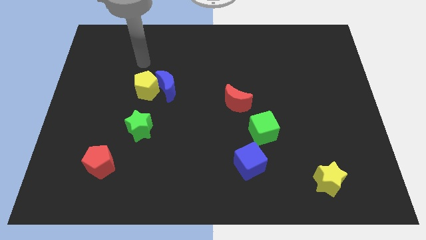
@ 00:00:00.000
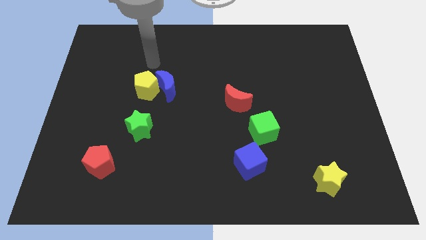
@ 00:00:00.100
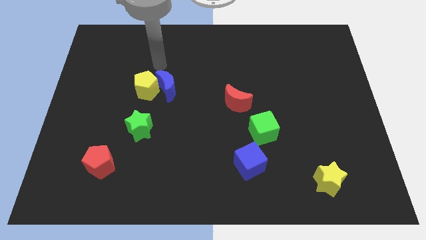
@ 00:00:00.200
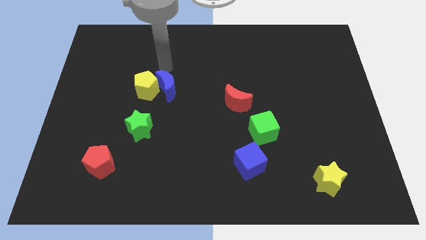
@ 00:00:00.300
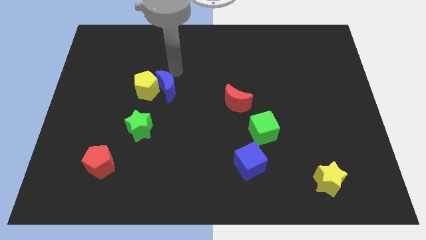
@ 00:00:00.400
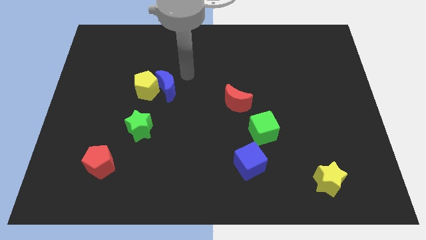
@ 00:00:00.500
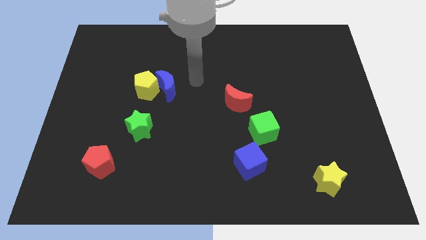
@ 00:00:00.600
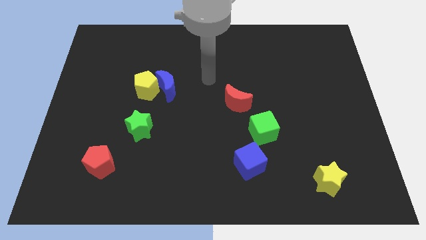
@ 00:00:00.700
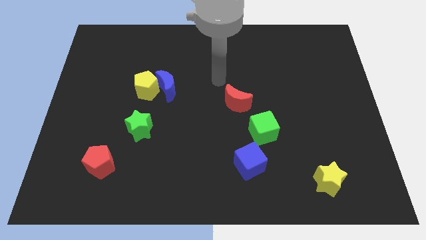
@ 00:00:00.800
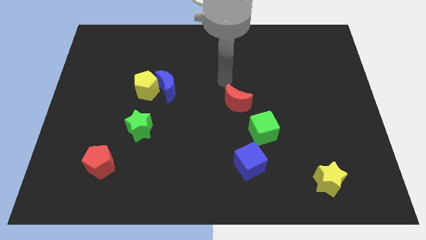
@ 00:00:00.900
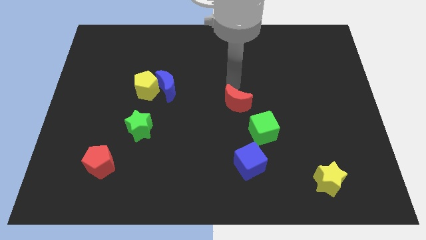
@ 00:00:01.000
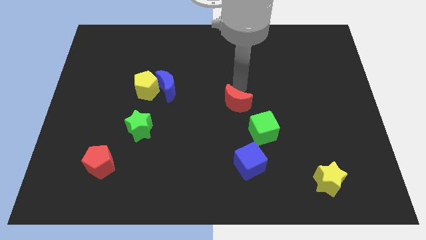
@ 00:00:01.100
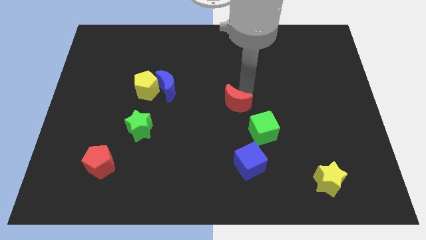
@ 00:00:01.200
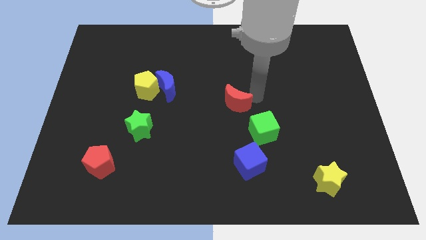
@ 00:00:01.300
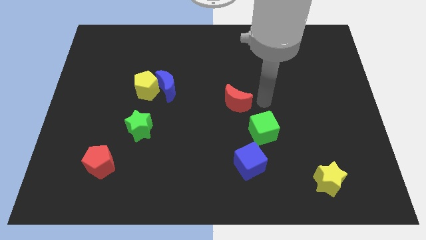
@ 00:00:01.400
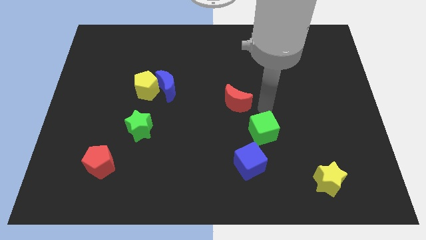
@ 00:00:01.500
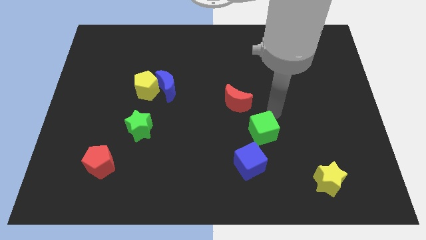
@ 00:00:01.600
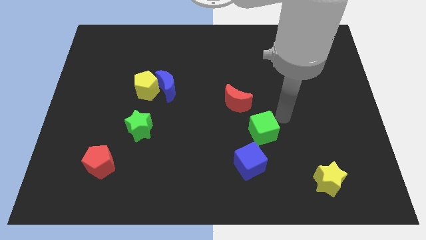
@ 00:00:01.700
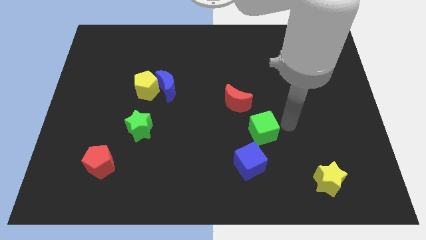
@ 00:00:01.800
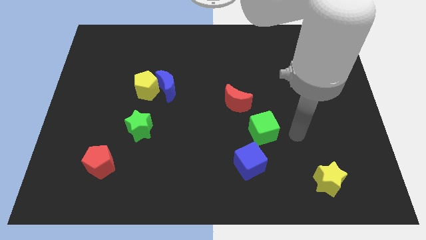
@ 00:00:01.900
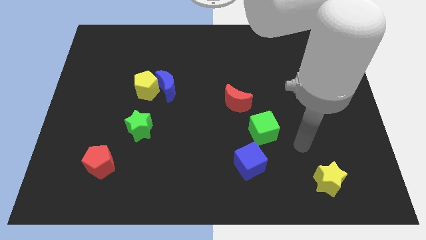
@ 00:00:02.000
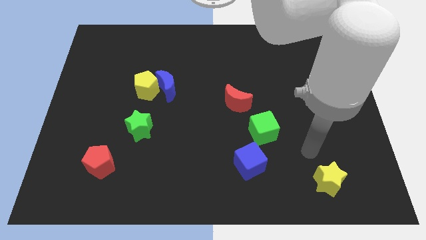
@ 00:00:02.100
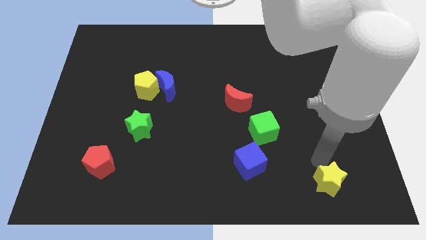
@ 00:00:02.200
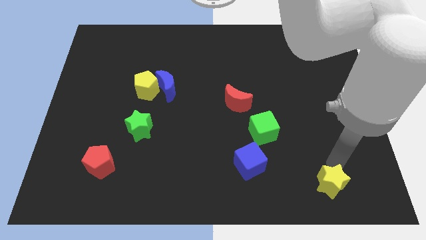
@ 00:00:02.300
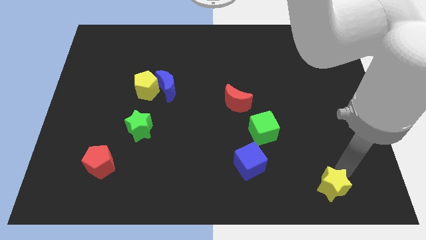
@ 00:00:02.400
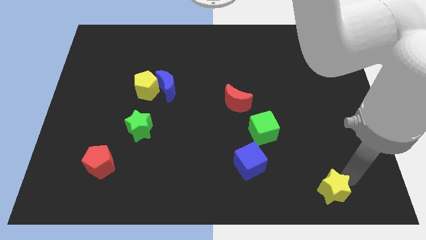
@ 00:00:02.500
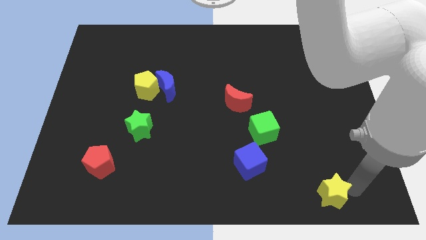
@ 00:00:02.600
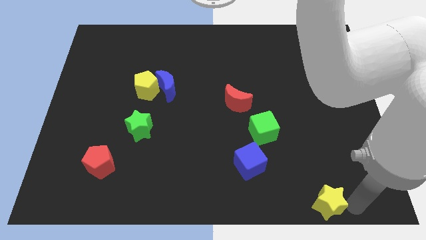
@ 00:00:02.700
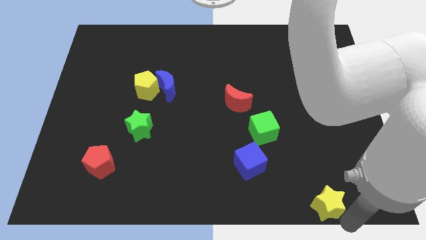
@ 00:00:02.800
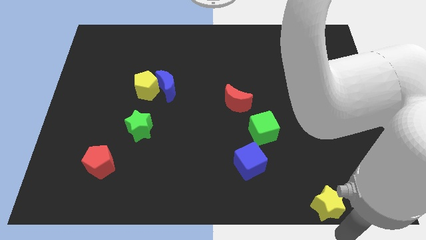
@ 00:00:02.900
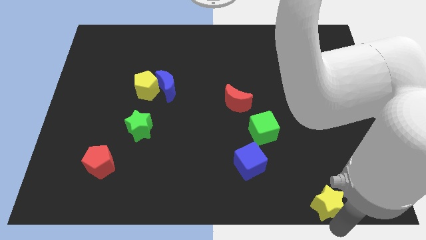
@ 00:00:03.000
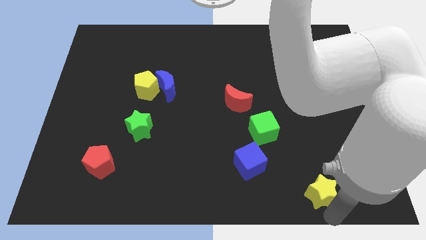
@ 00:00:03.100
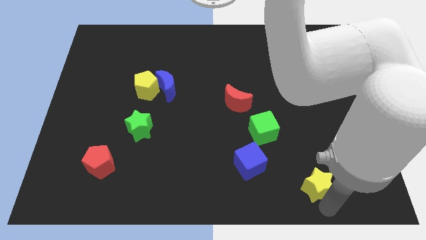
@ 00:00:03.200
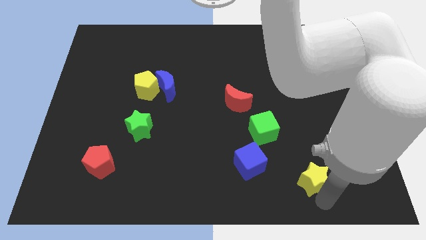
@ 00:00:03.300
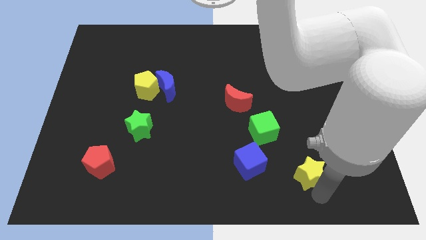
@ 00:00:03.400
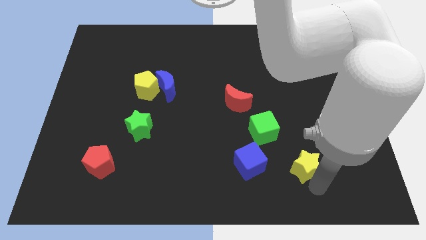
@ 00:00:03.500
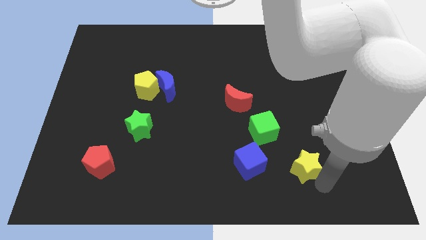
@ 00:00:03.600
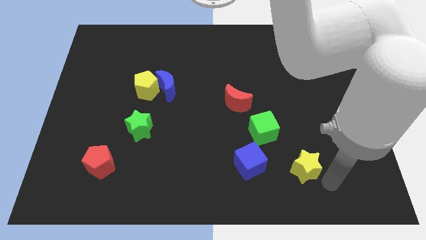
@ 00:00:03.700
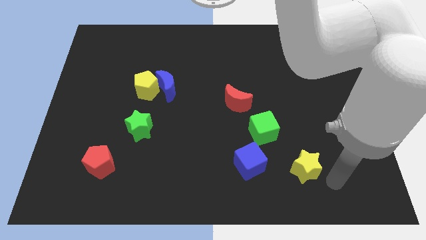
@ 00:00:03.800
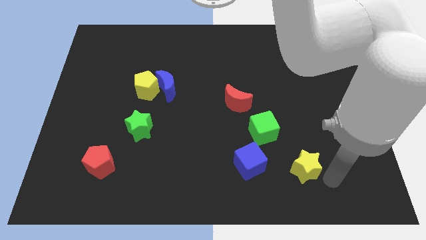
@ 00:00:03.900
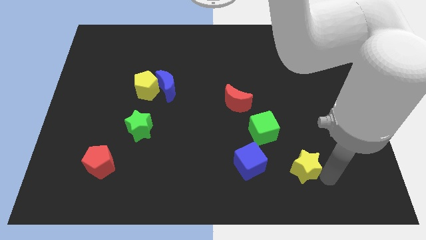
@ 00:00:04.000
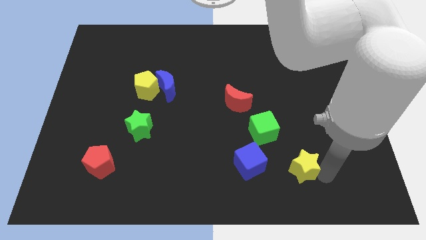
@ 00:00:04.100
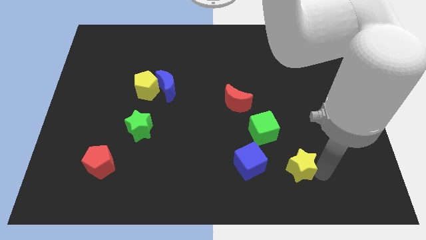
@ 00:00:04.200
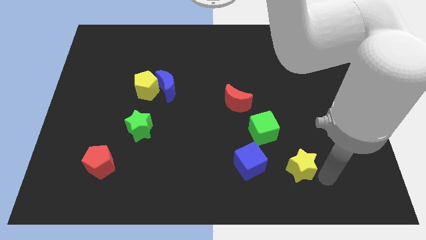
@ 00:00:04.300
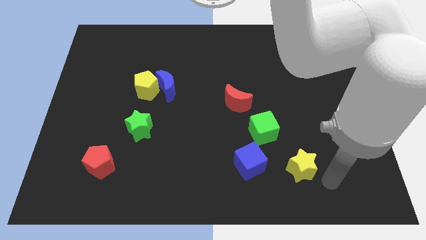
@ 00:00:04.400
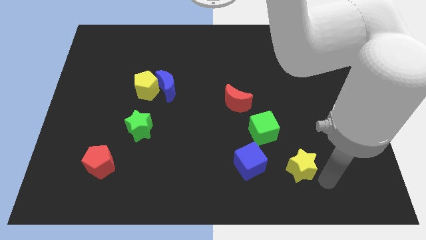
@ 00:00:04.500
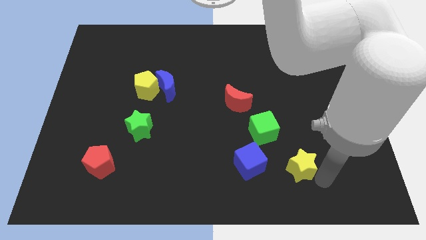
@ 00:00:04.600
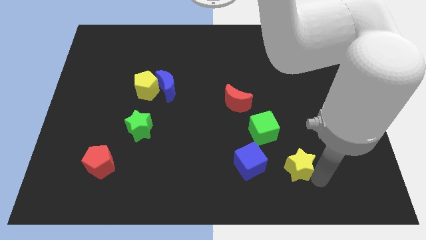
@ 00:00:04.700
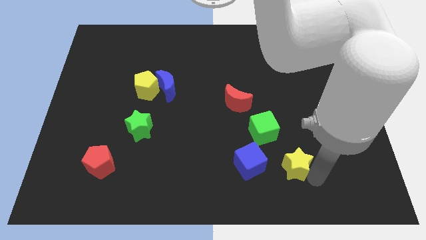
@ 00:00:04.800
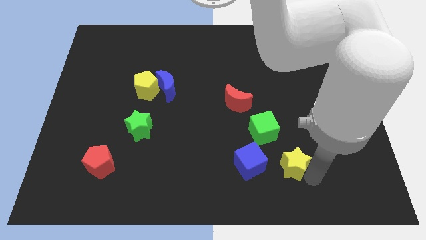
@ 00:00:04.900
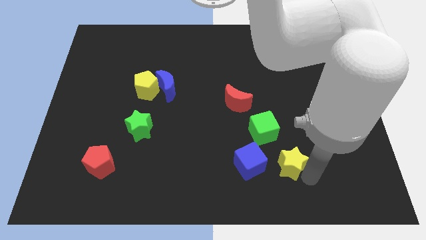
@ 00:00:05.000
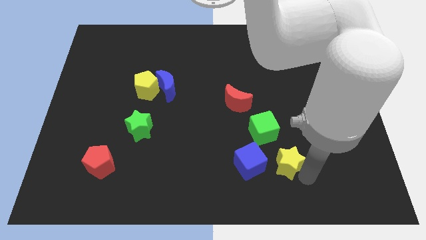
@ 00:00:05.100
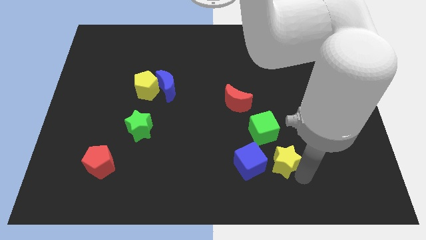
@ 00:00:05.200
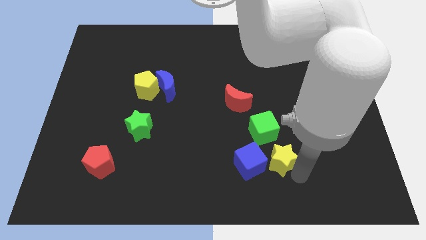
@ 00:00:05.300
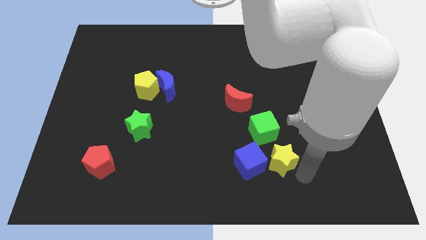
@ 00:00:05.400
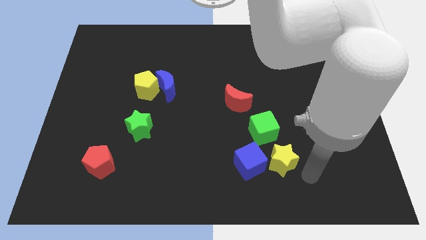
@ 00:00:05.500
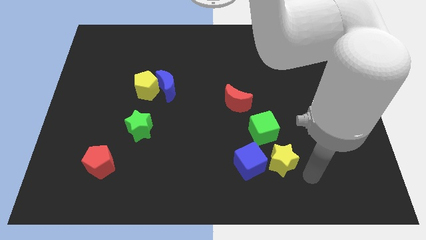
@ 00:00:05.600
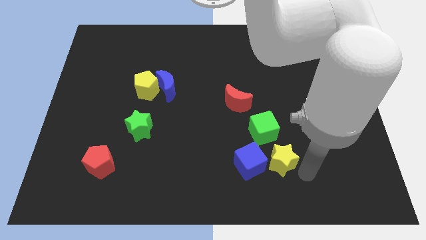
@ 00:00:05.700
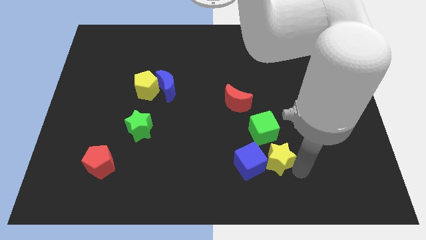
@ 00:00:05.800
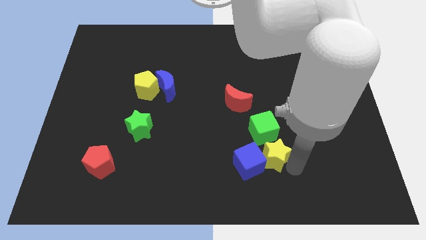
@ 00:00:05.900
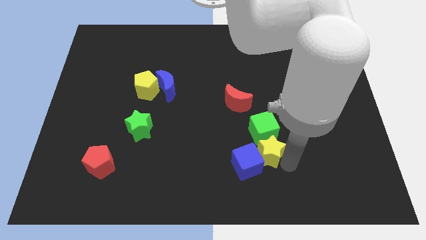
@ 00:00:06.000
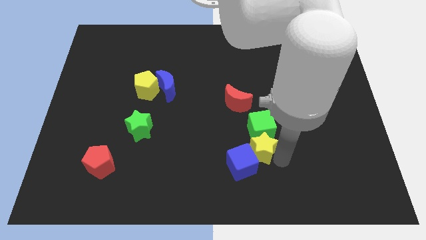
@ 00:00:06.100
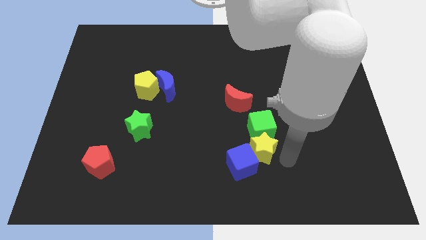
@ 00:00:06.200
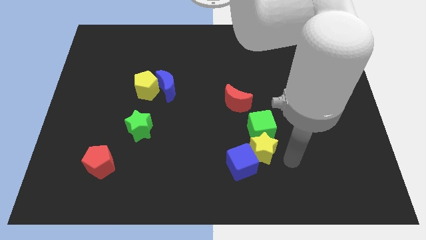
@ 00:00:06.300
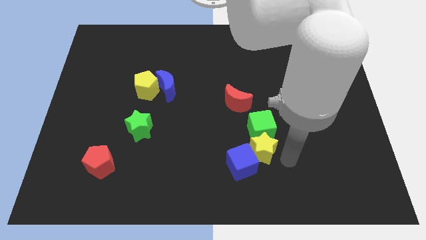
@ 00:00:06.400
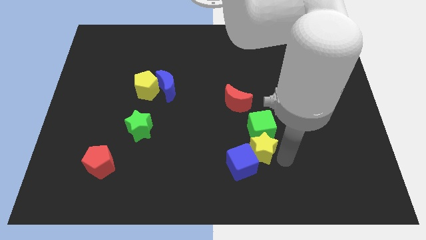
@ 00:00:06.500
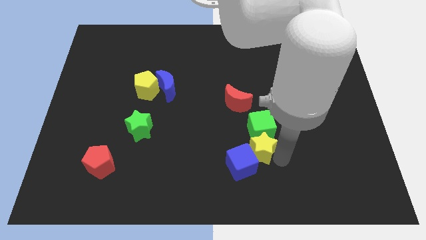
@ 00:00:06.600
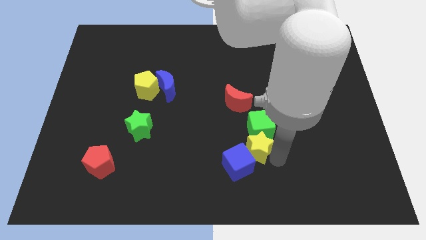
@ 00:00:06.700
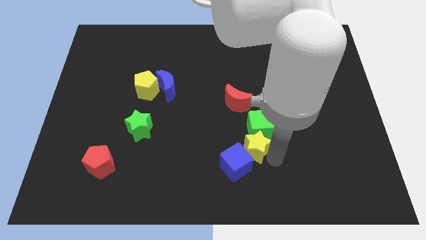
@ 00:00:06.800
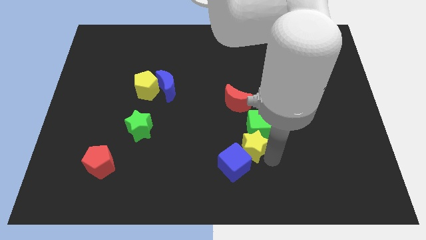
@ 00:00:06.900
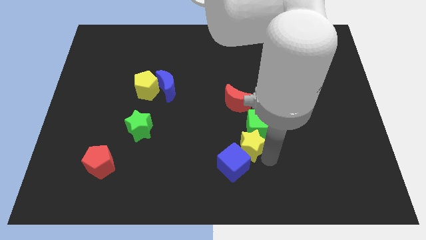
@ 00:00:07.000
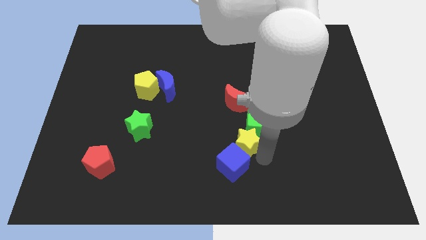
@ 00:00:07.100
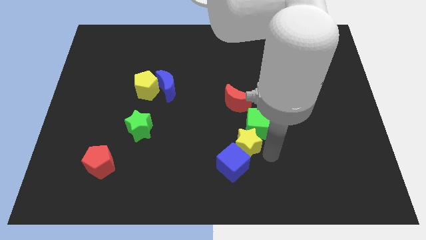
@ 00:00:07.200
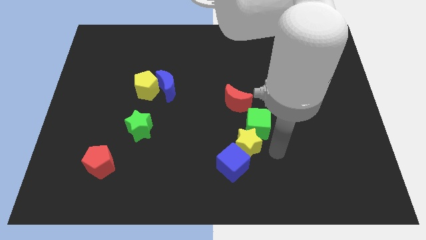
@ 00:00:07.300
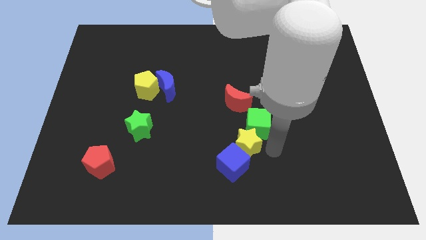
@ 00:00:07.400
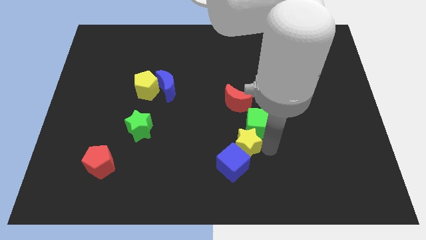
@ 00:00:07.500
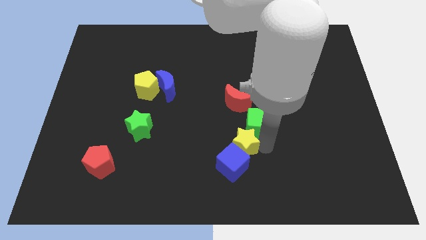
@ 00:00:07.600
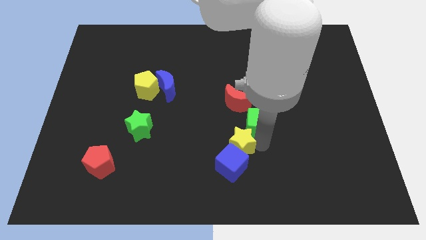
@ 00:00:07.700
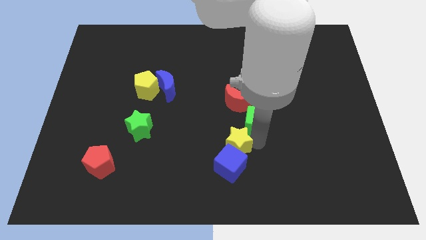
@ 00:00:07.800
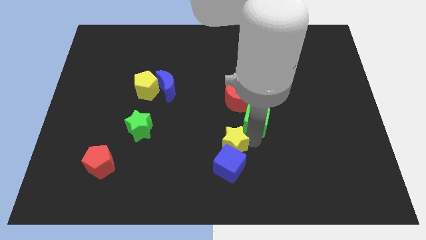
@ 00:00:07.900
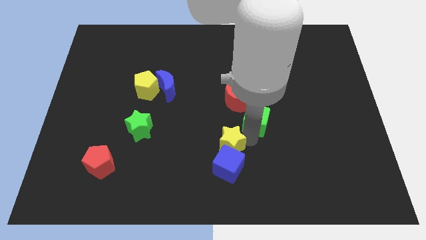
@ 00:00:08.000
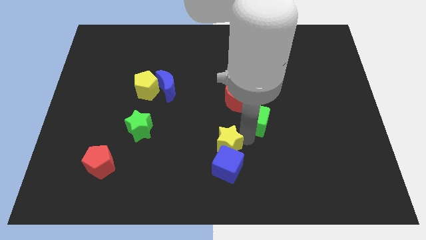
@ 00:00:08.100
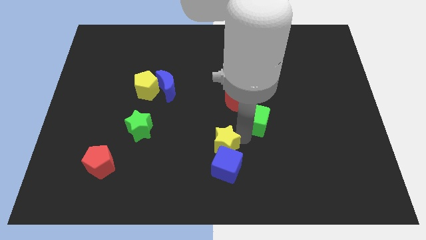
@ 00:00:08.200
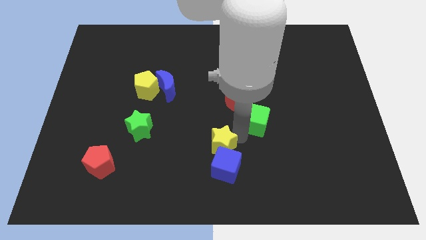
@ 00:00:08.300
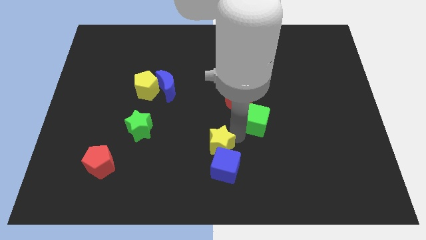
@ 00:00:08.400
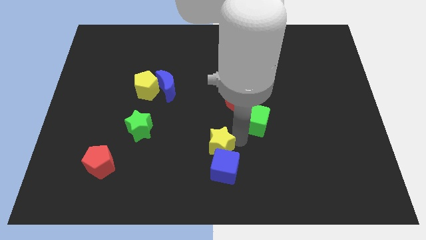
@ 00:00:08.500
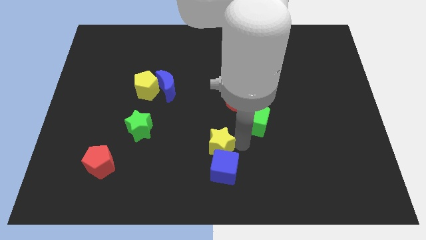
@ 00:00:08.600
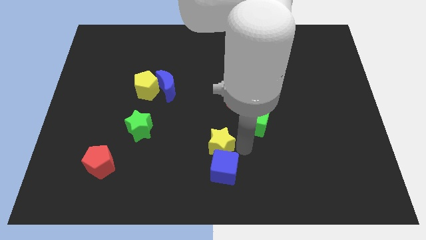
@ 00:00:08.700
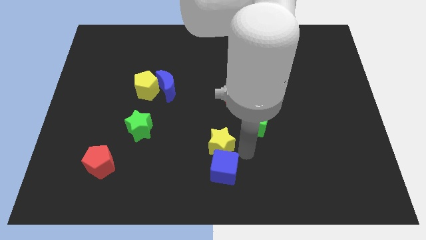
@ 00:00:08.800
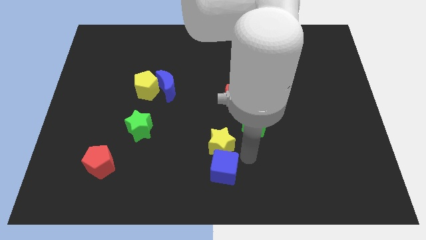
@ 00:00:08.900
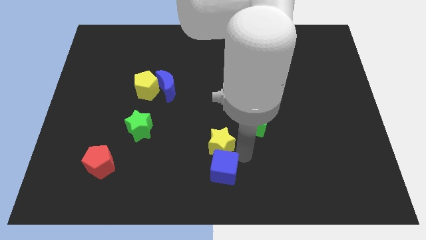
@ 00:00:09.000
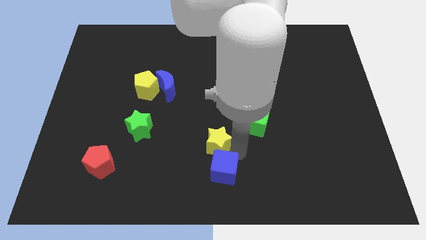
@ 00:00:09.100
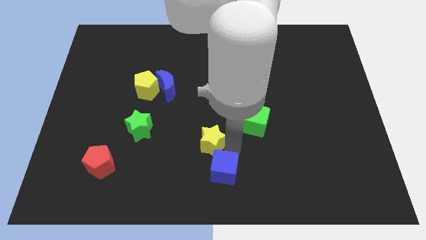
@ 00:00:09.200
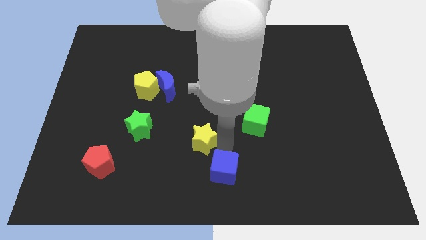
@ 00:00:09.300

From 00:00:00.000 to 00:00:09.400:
slide the yellow star just right of the green star
